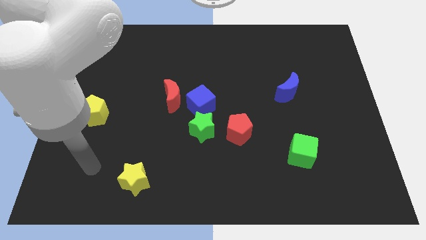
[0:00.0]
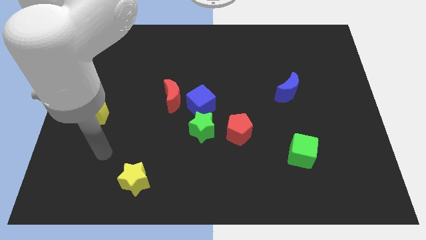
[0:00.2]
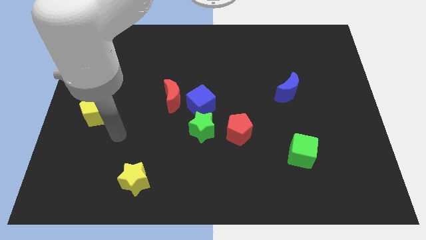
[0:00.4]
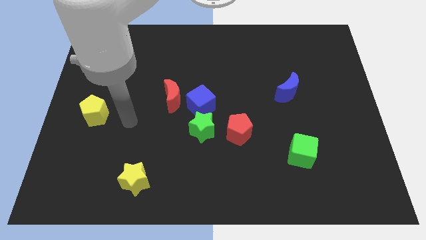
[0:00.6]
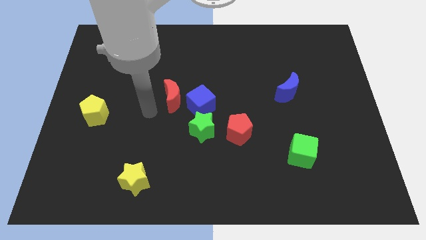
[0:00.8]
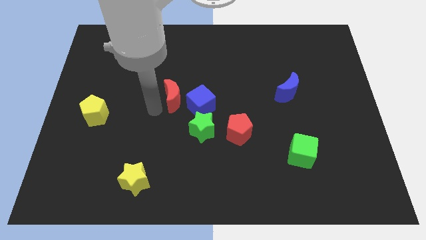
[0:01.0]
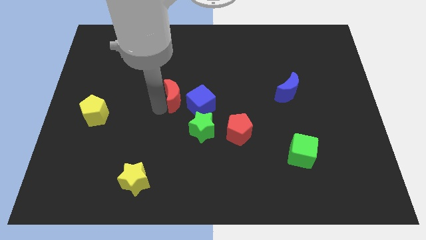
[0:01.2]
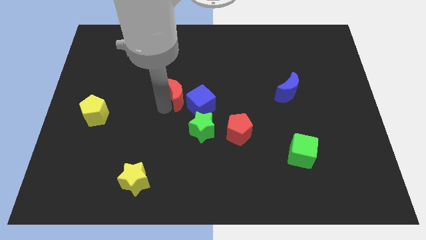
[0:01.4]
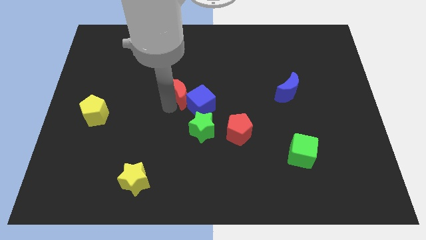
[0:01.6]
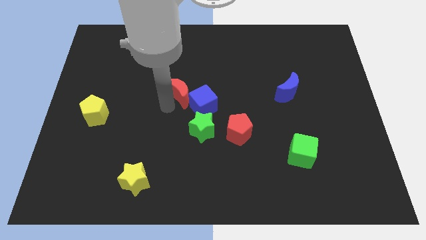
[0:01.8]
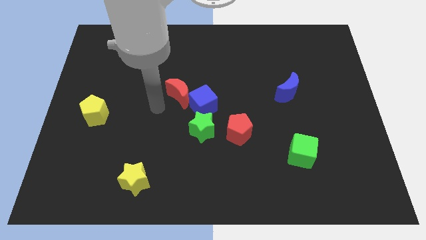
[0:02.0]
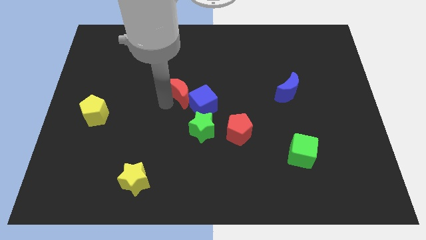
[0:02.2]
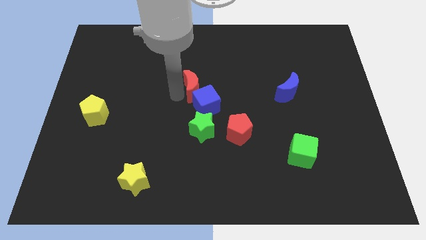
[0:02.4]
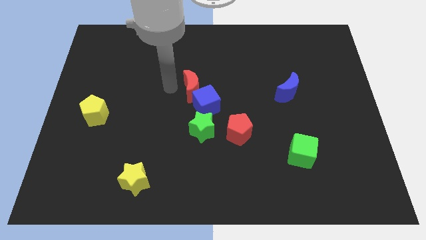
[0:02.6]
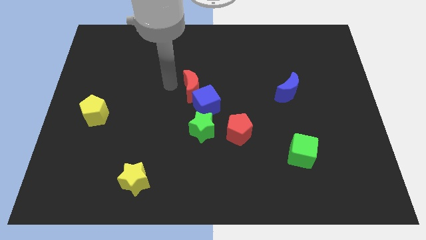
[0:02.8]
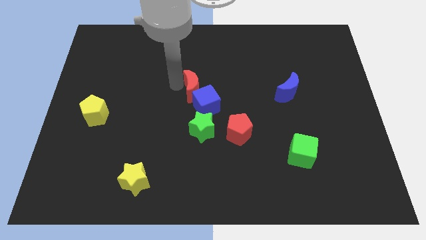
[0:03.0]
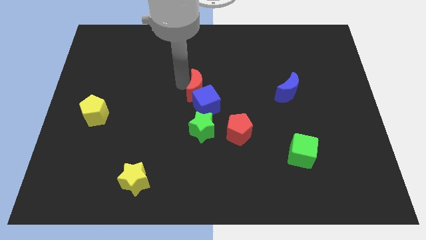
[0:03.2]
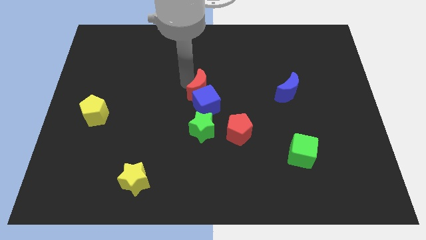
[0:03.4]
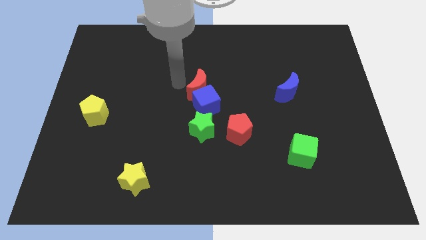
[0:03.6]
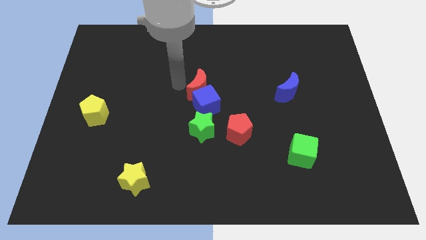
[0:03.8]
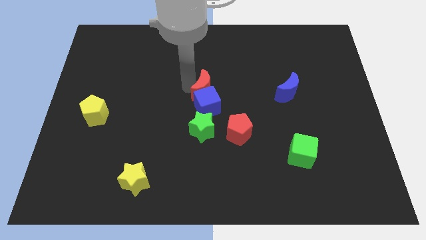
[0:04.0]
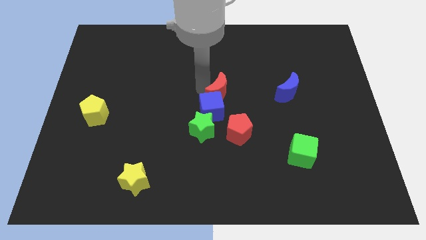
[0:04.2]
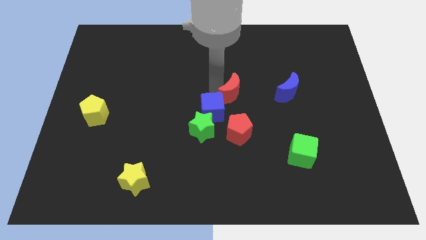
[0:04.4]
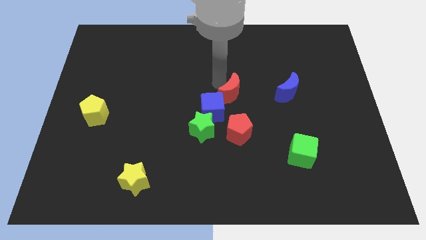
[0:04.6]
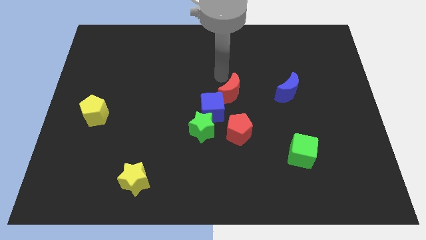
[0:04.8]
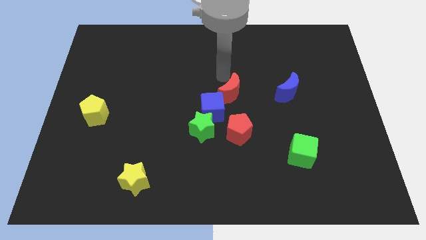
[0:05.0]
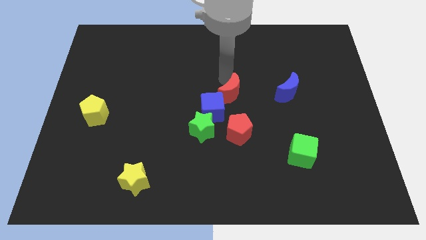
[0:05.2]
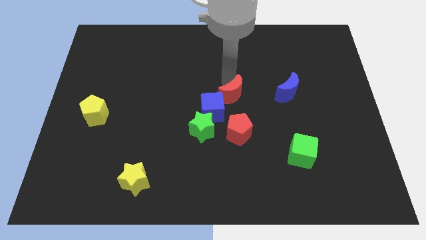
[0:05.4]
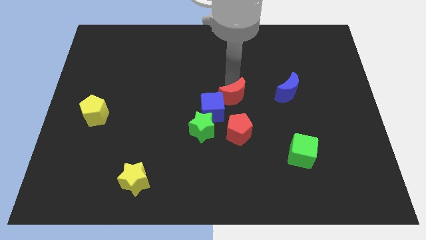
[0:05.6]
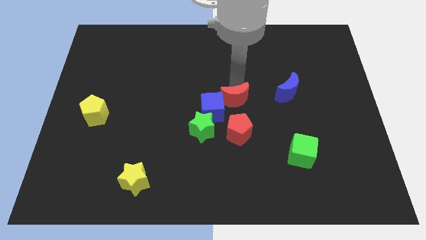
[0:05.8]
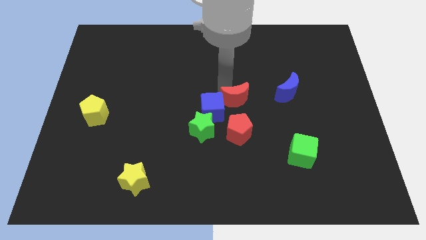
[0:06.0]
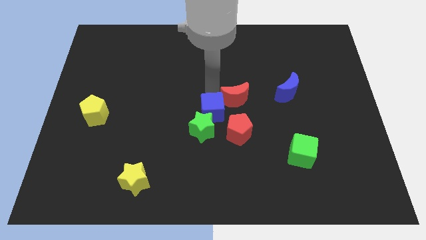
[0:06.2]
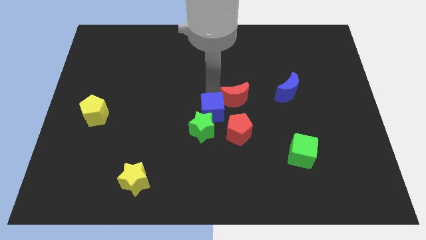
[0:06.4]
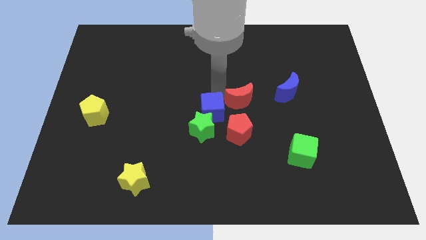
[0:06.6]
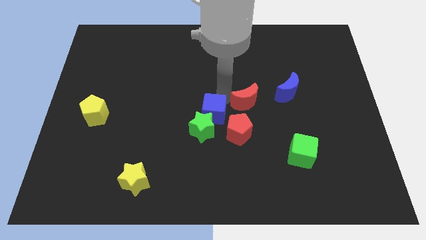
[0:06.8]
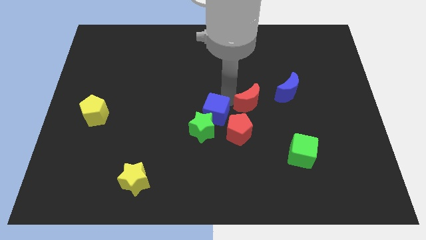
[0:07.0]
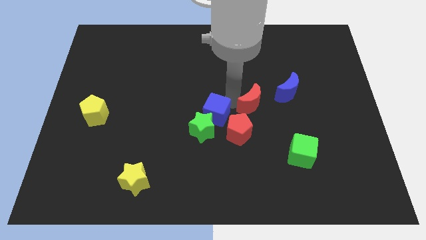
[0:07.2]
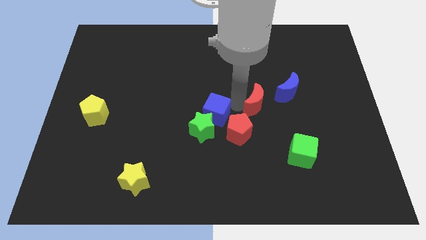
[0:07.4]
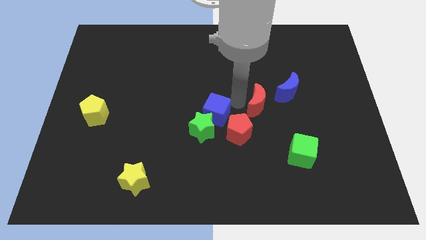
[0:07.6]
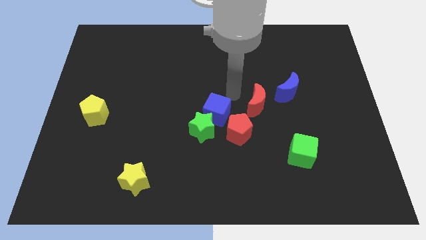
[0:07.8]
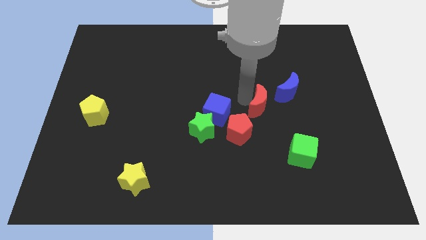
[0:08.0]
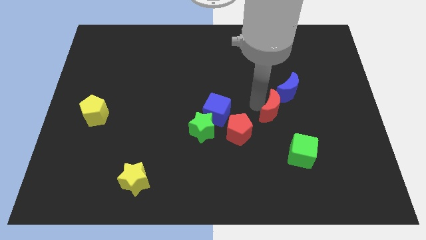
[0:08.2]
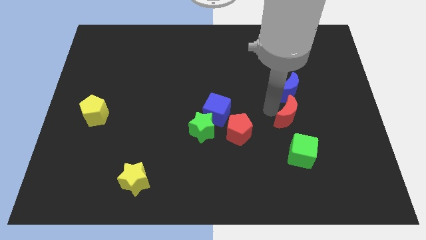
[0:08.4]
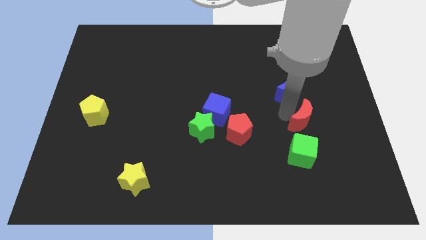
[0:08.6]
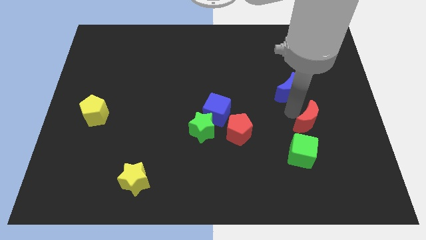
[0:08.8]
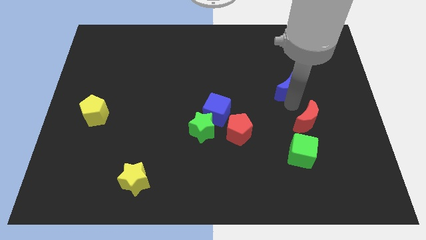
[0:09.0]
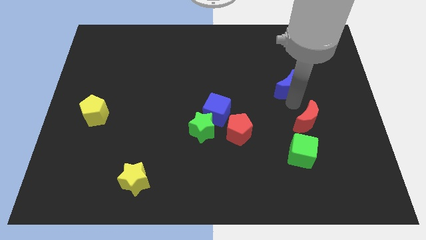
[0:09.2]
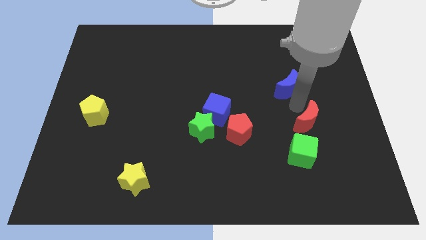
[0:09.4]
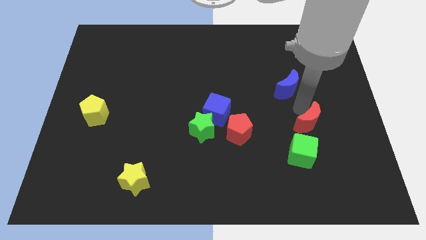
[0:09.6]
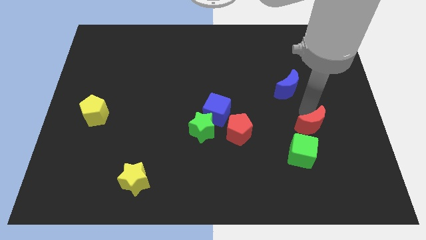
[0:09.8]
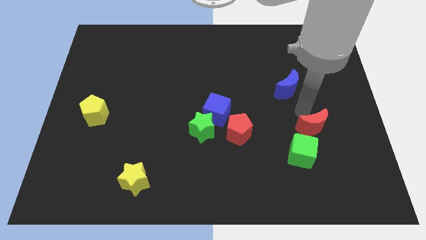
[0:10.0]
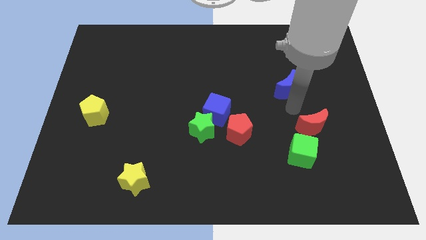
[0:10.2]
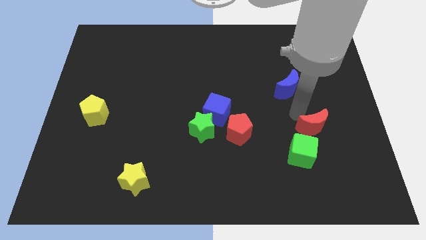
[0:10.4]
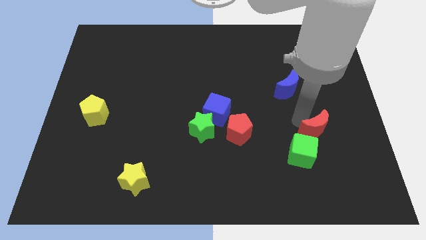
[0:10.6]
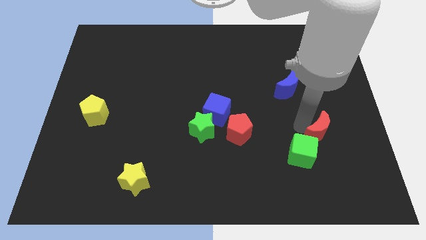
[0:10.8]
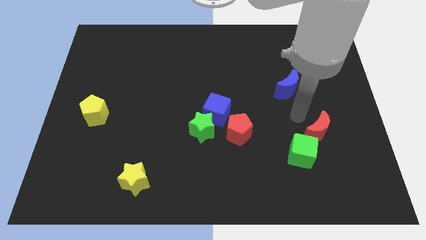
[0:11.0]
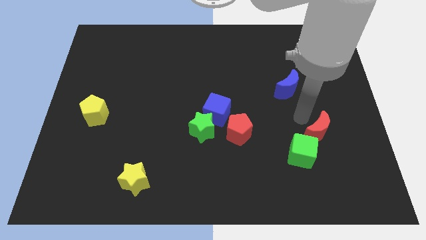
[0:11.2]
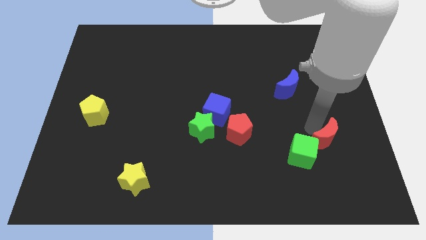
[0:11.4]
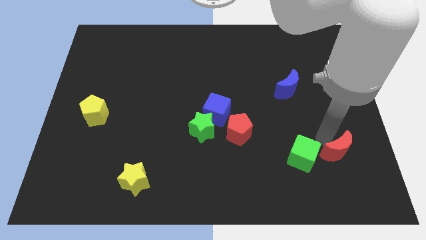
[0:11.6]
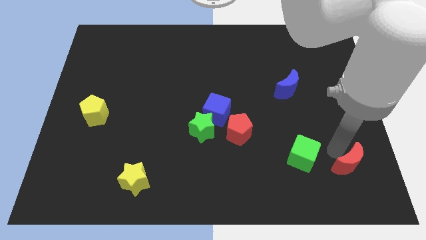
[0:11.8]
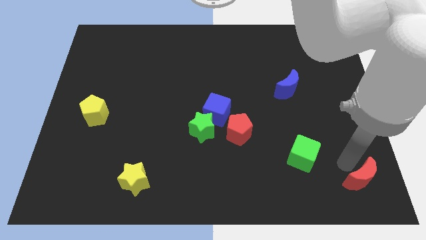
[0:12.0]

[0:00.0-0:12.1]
put the red moon to the lower right corner
